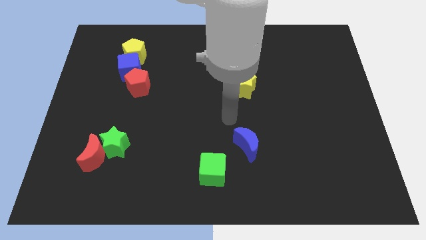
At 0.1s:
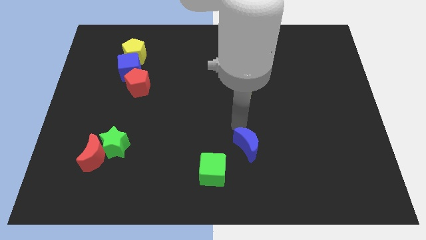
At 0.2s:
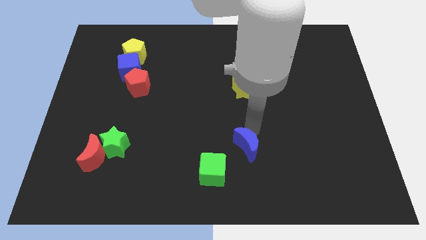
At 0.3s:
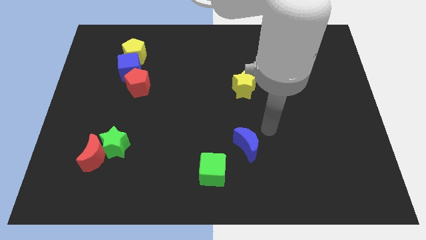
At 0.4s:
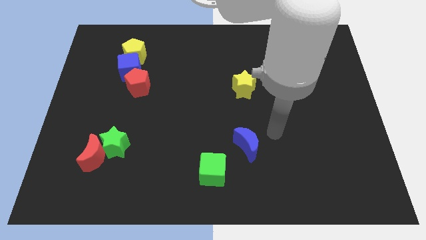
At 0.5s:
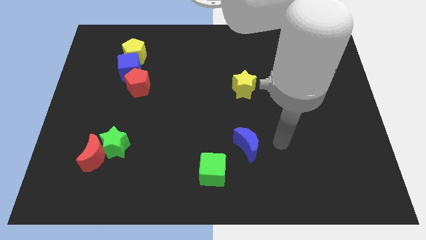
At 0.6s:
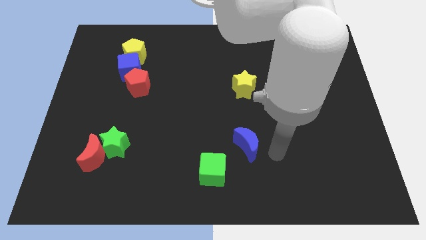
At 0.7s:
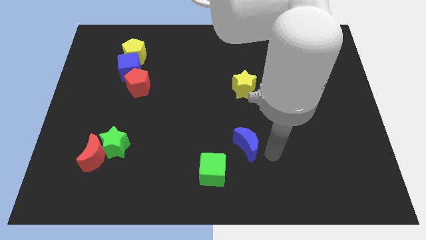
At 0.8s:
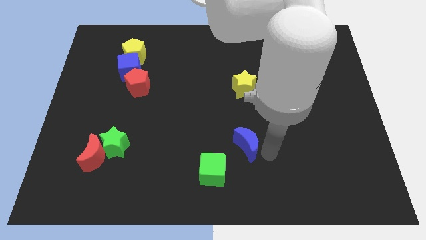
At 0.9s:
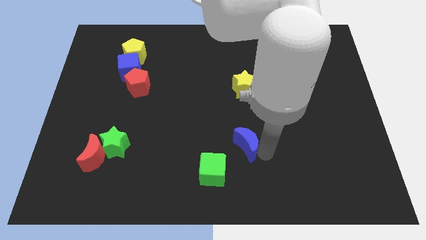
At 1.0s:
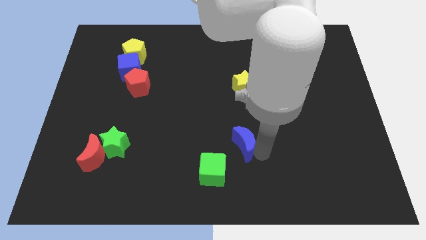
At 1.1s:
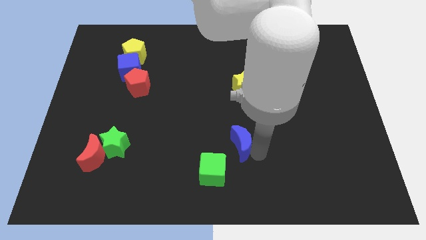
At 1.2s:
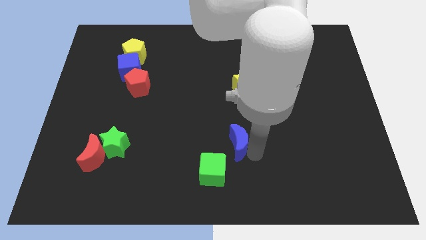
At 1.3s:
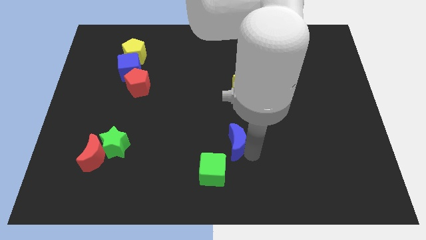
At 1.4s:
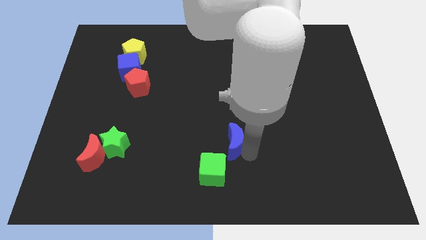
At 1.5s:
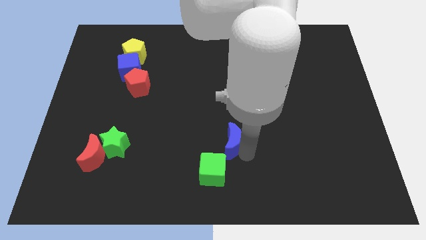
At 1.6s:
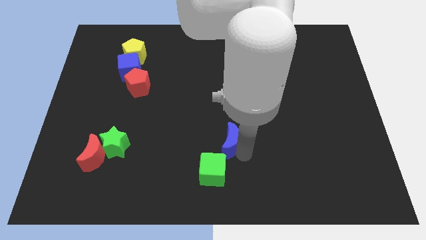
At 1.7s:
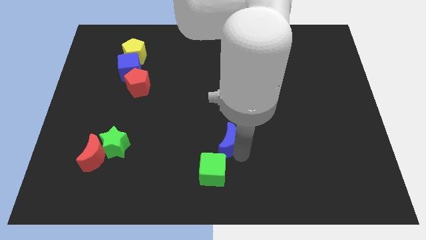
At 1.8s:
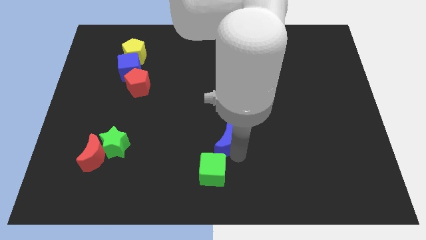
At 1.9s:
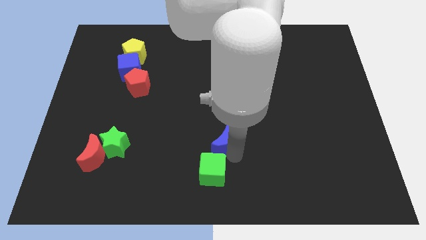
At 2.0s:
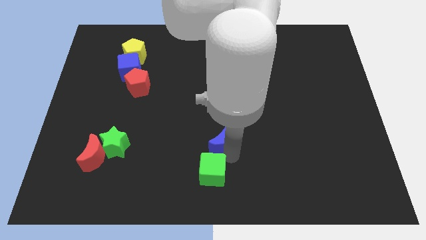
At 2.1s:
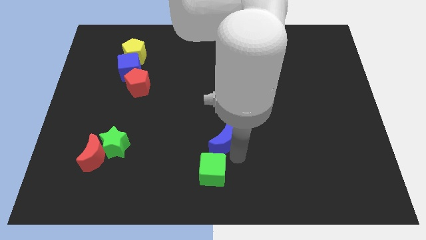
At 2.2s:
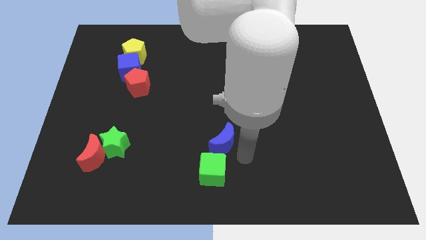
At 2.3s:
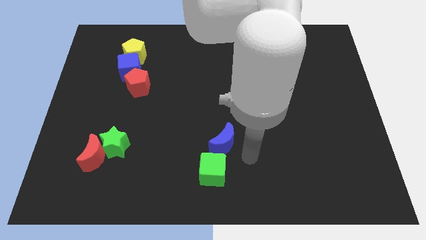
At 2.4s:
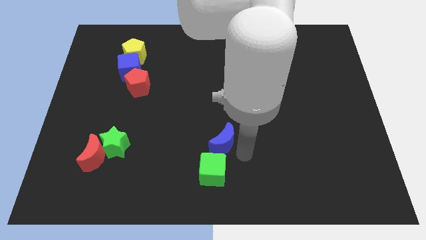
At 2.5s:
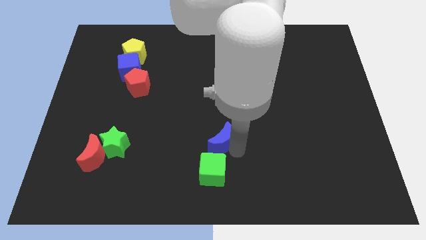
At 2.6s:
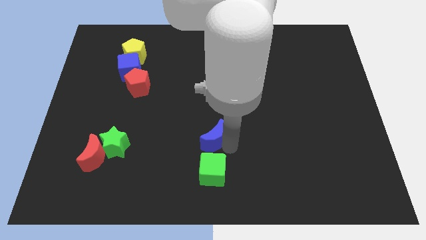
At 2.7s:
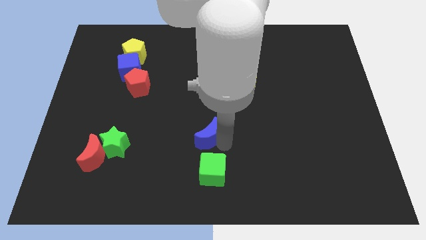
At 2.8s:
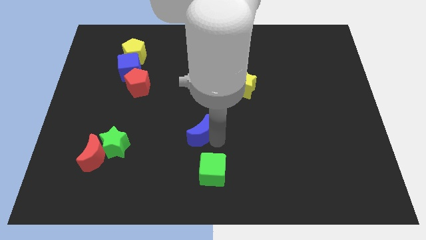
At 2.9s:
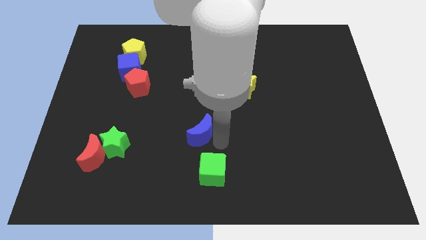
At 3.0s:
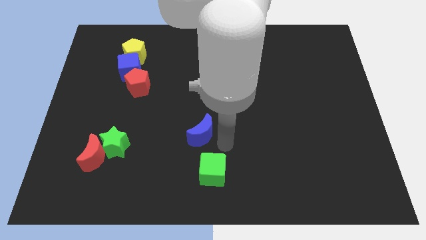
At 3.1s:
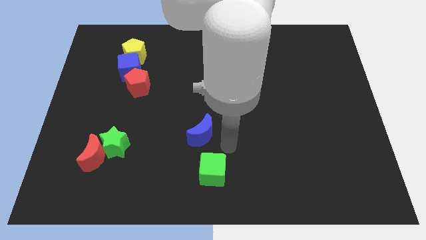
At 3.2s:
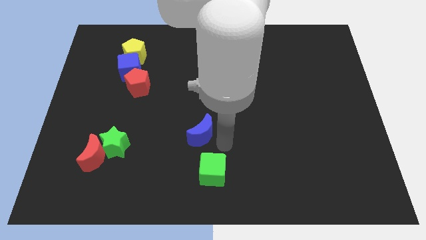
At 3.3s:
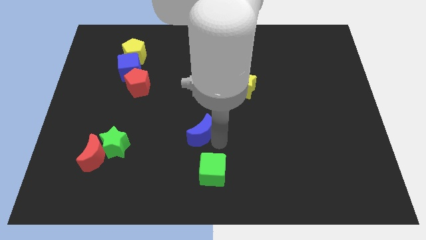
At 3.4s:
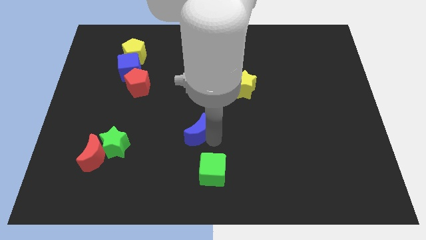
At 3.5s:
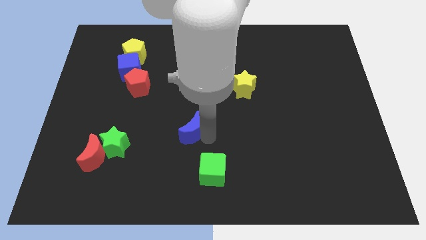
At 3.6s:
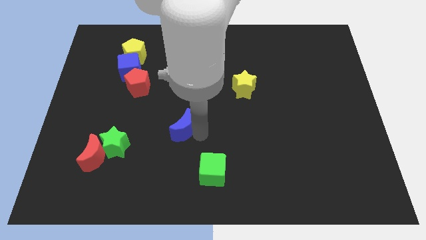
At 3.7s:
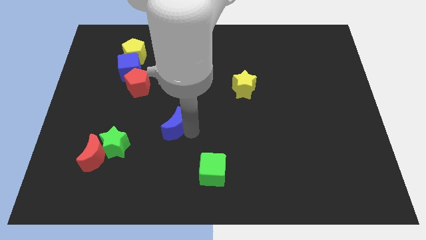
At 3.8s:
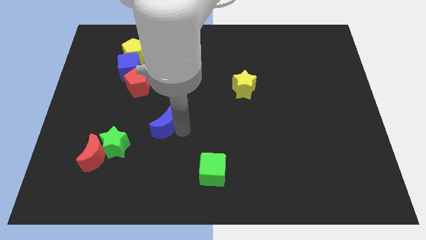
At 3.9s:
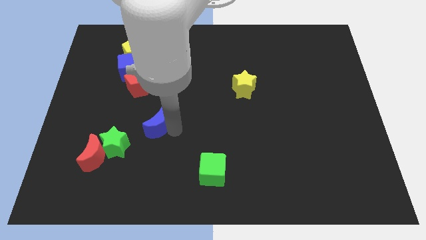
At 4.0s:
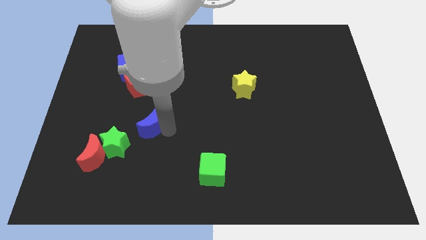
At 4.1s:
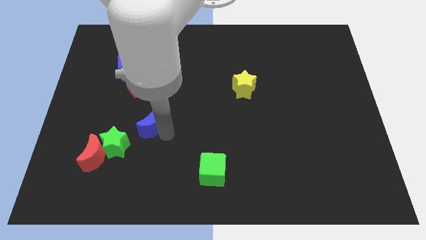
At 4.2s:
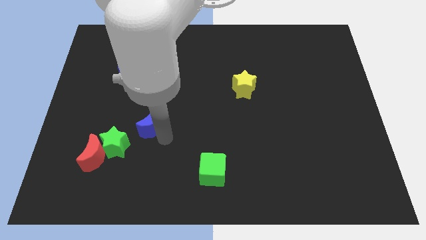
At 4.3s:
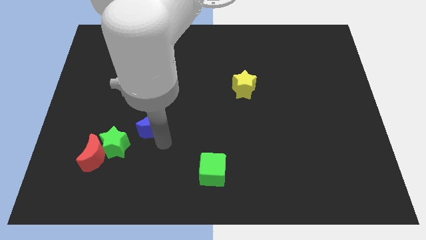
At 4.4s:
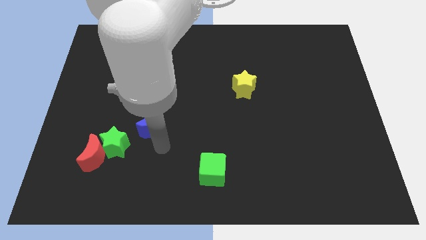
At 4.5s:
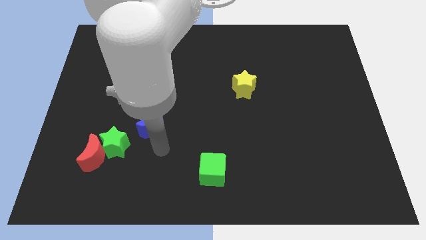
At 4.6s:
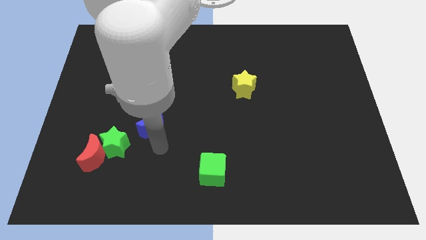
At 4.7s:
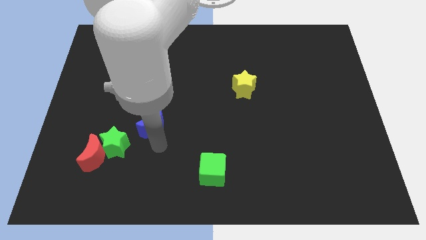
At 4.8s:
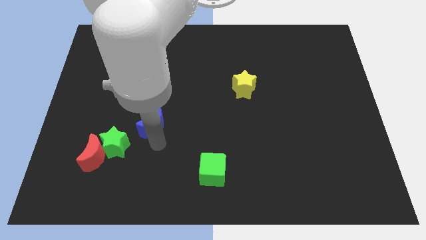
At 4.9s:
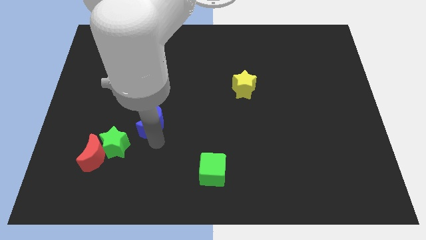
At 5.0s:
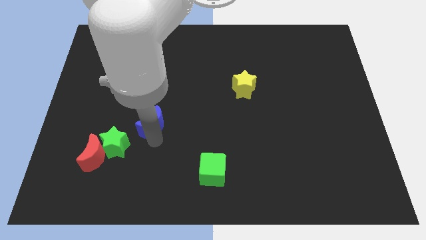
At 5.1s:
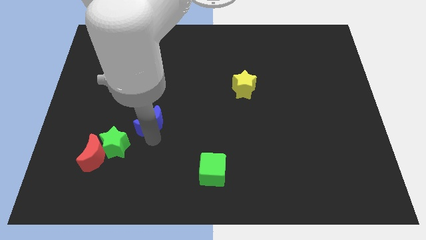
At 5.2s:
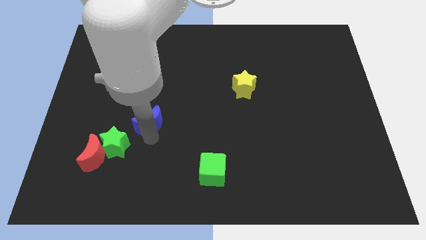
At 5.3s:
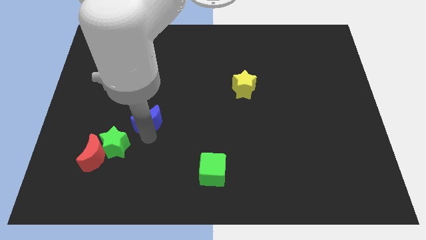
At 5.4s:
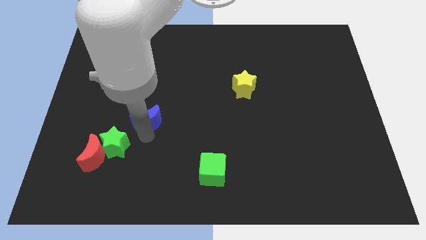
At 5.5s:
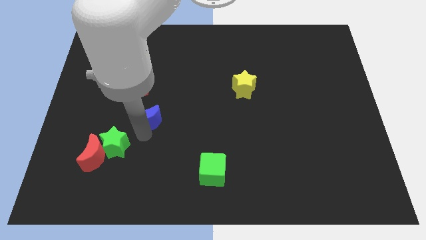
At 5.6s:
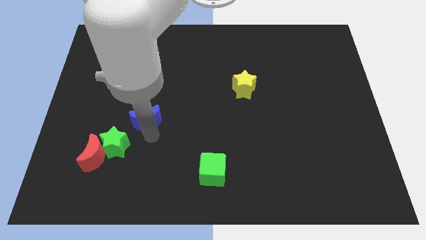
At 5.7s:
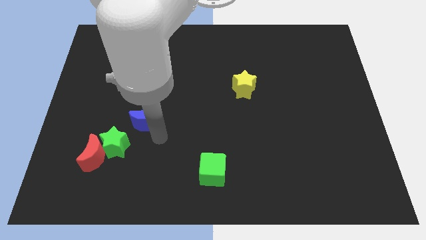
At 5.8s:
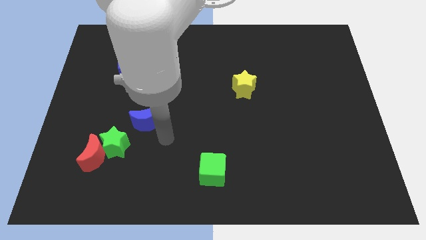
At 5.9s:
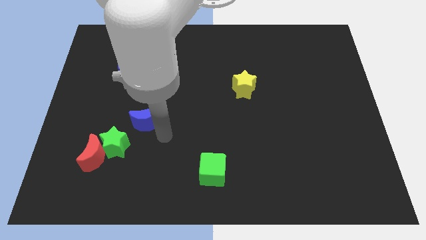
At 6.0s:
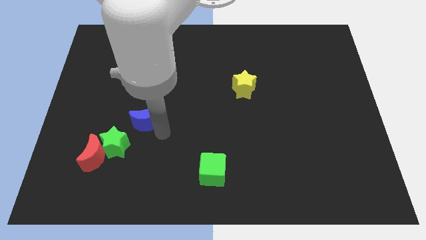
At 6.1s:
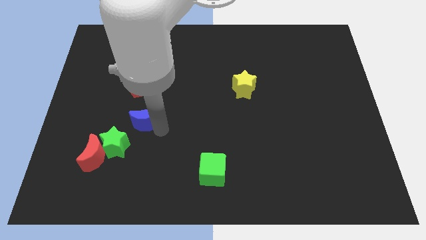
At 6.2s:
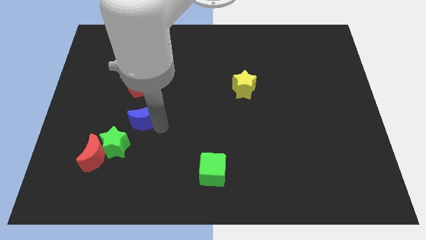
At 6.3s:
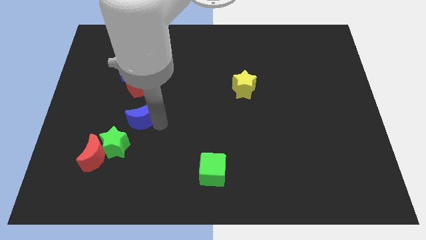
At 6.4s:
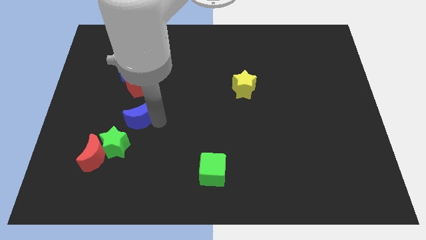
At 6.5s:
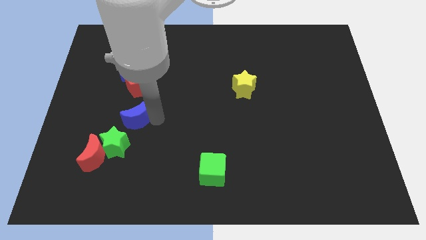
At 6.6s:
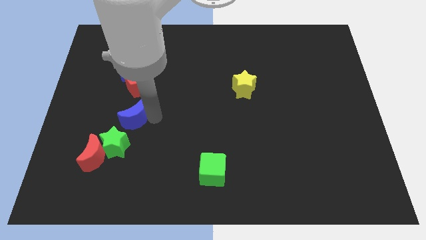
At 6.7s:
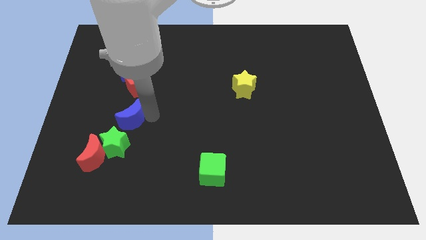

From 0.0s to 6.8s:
put the blue moon below the blue cube

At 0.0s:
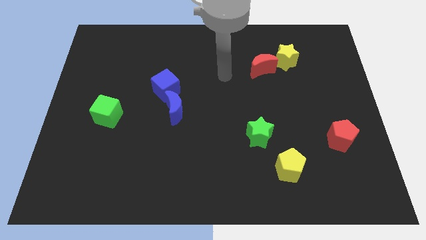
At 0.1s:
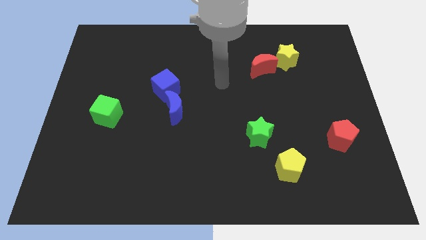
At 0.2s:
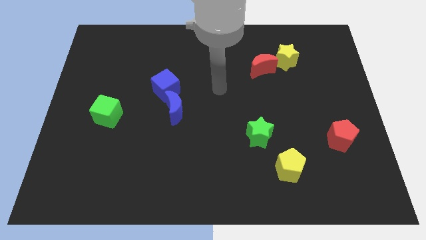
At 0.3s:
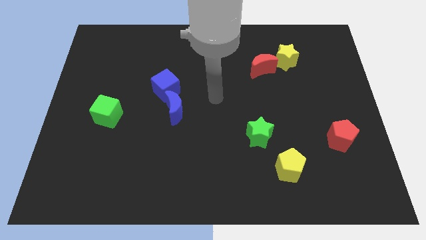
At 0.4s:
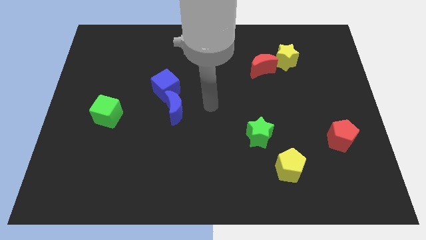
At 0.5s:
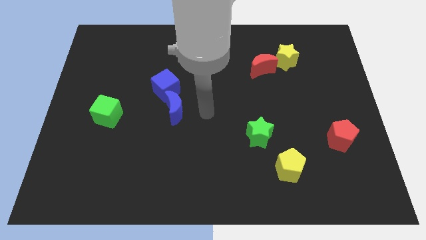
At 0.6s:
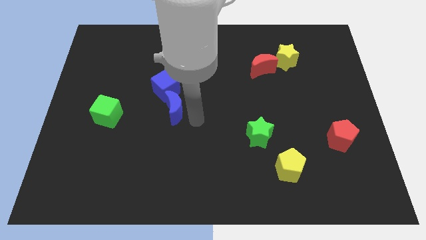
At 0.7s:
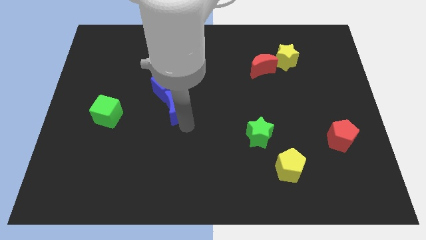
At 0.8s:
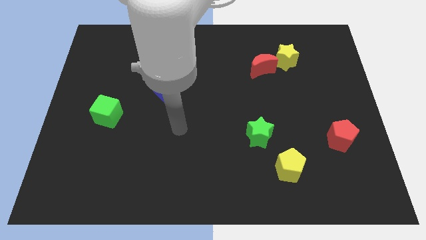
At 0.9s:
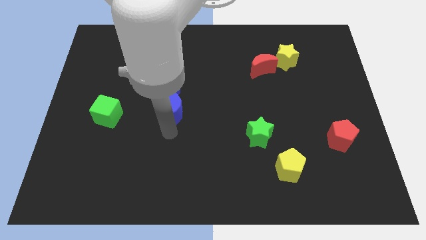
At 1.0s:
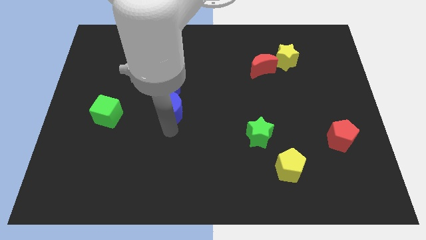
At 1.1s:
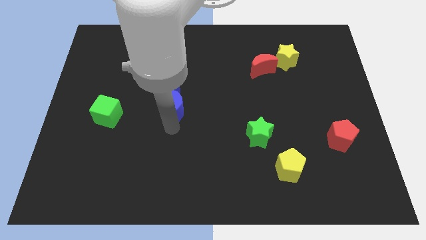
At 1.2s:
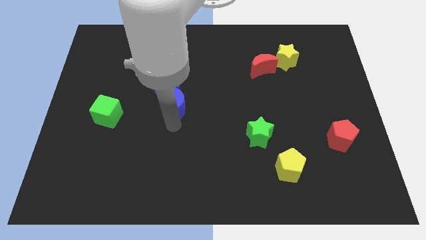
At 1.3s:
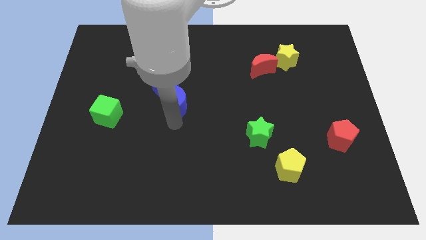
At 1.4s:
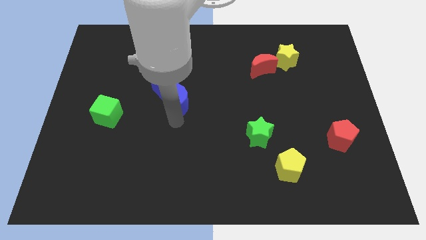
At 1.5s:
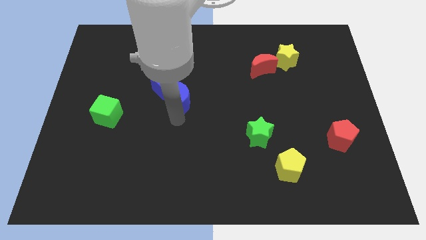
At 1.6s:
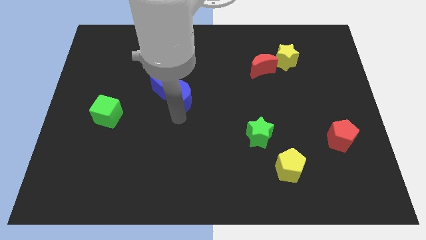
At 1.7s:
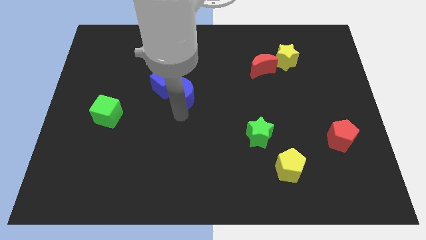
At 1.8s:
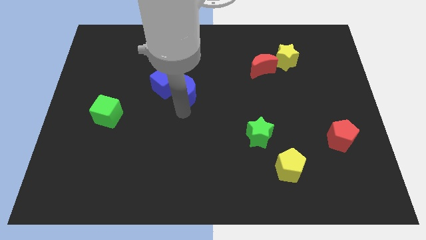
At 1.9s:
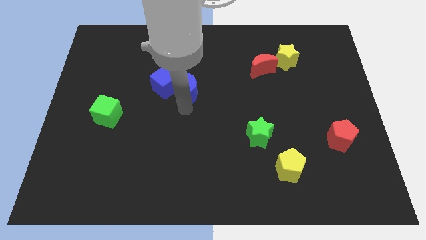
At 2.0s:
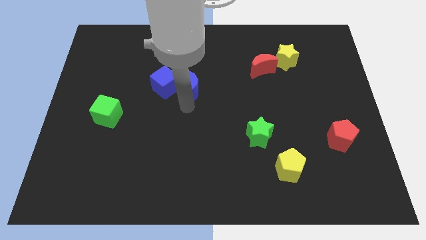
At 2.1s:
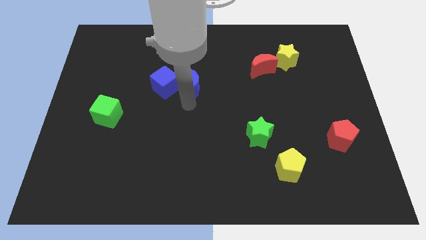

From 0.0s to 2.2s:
push the blue moon to the top right of the blue cube
